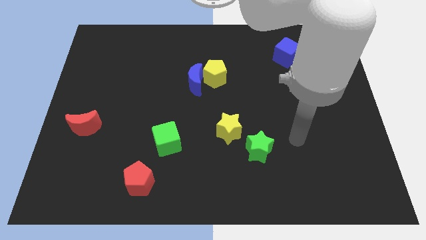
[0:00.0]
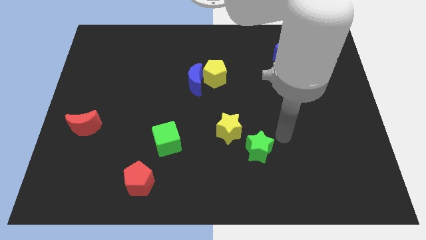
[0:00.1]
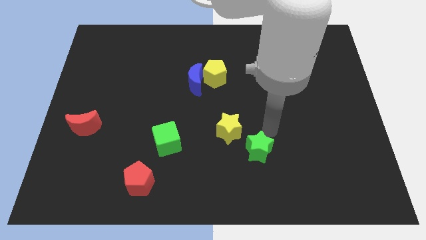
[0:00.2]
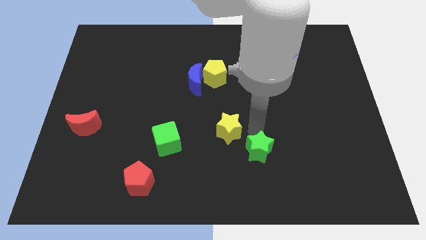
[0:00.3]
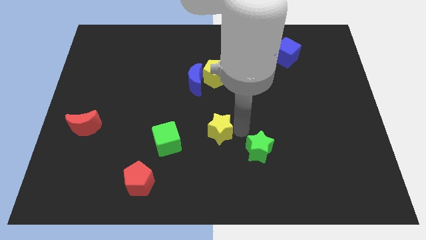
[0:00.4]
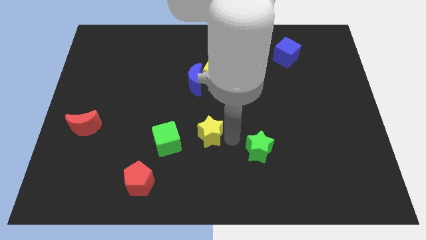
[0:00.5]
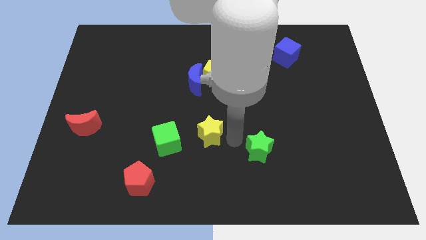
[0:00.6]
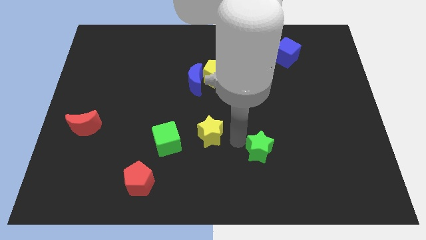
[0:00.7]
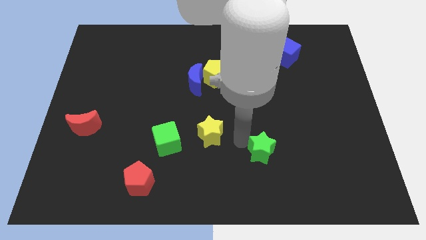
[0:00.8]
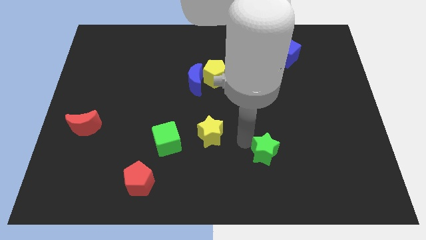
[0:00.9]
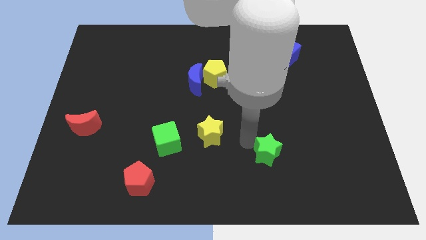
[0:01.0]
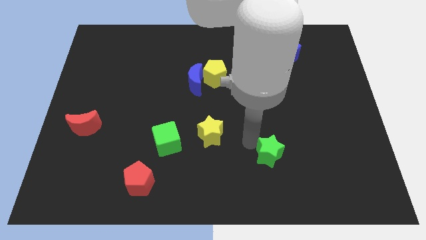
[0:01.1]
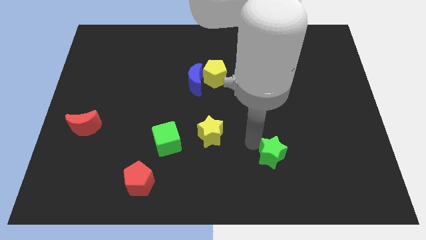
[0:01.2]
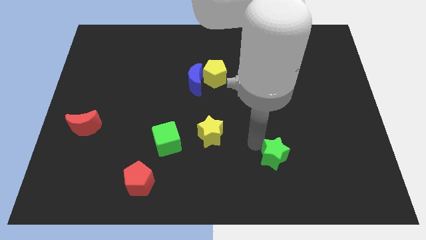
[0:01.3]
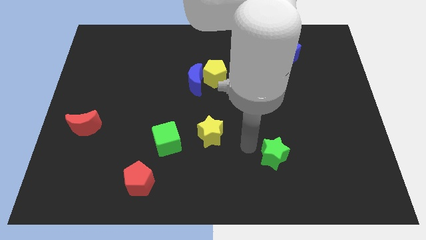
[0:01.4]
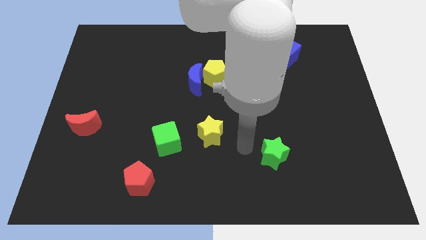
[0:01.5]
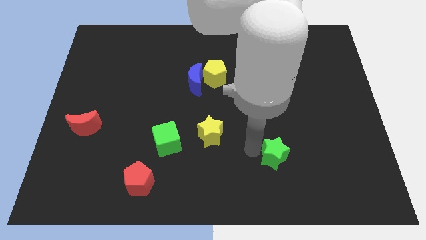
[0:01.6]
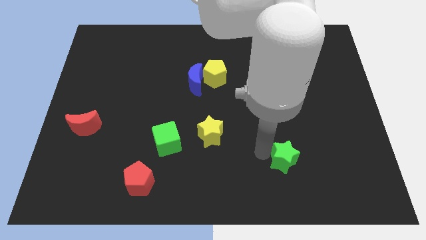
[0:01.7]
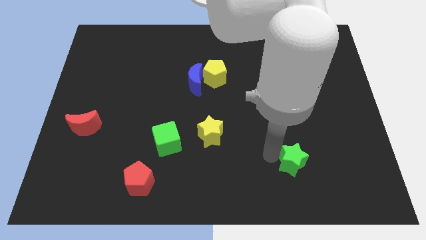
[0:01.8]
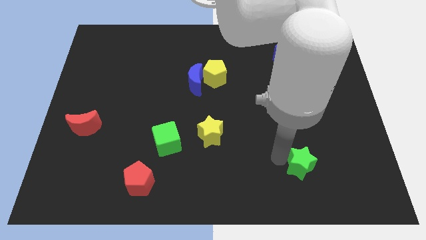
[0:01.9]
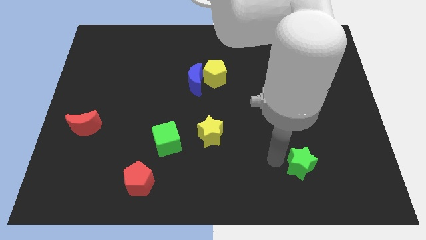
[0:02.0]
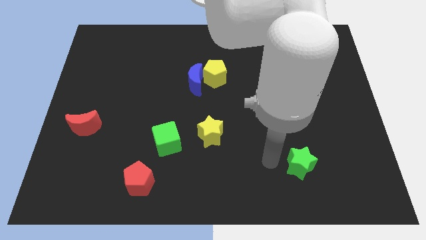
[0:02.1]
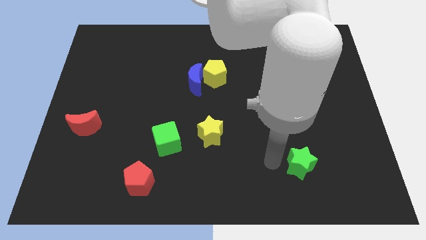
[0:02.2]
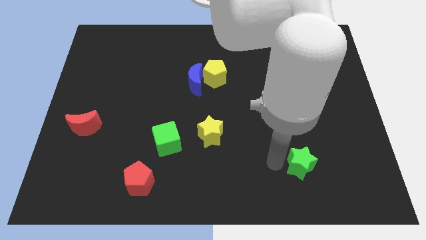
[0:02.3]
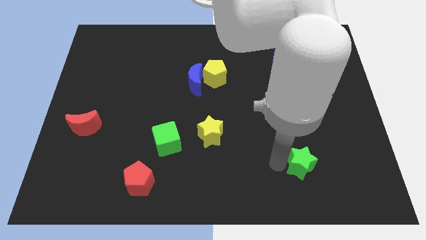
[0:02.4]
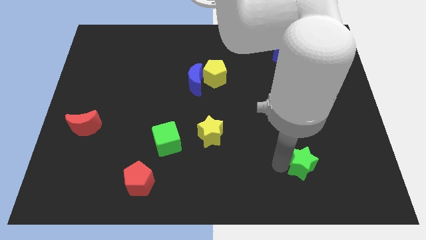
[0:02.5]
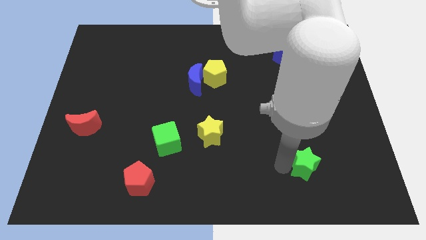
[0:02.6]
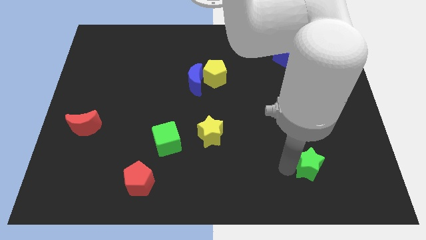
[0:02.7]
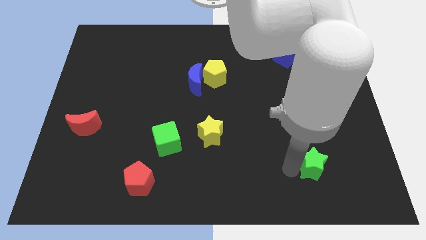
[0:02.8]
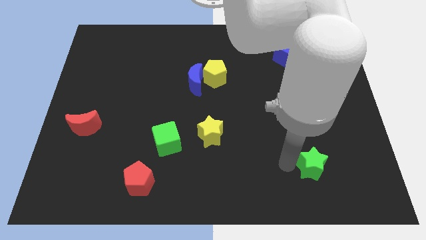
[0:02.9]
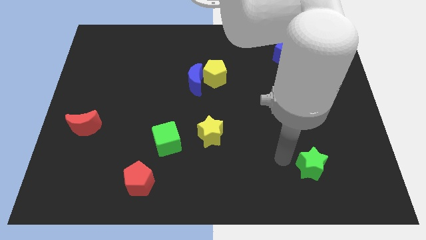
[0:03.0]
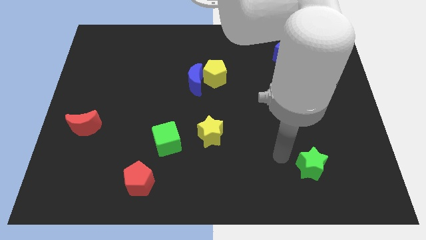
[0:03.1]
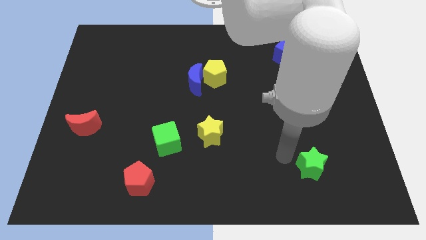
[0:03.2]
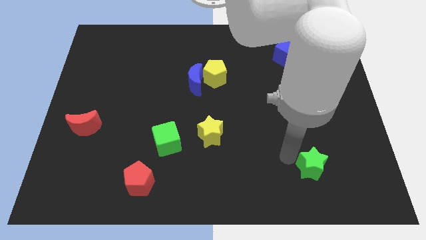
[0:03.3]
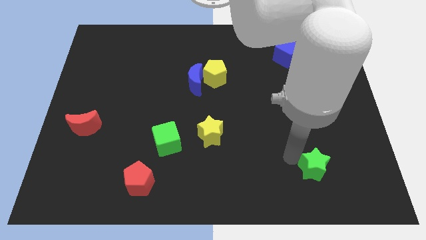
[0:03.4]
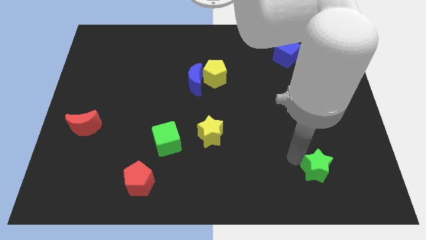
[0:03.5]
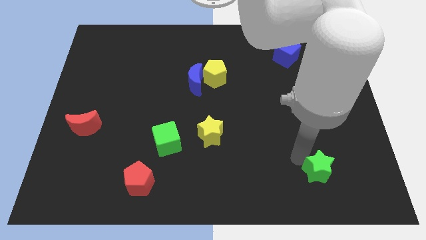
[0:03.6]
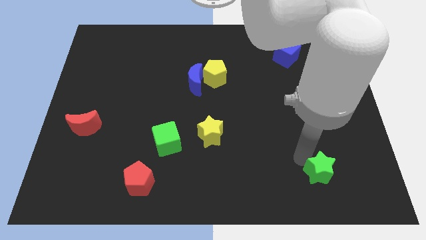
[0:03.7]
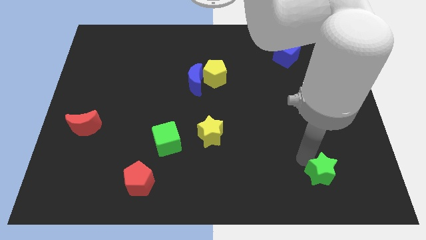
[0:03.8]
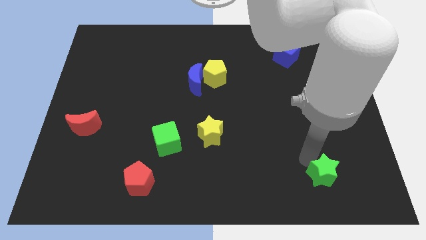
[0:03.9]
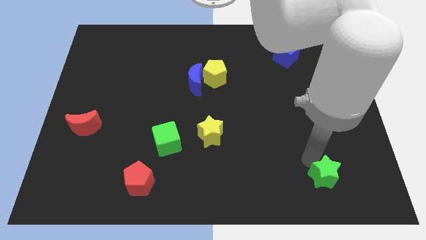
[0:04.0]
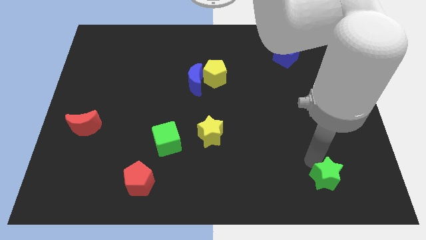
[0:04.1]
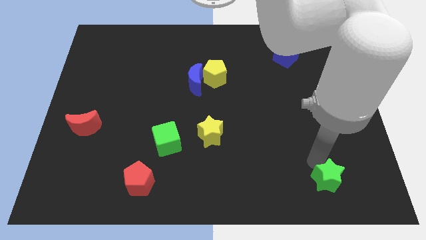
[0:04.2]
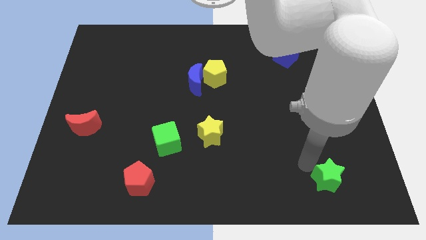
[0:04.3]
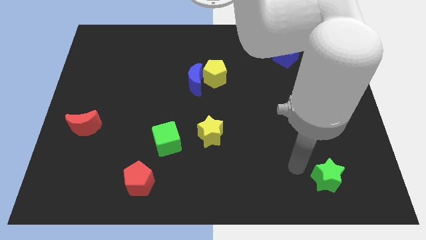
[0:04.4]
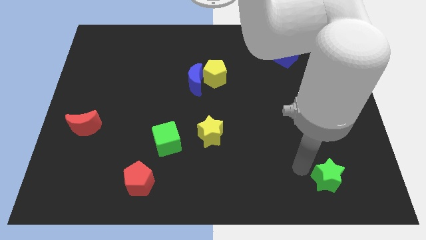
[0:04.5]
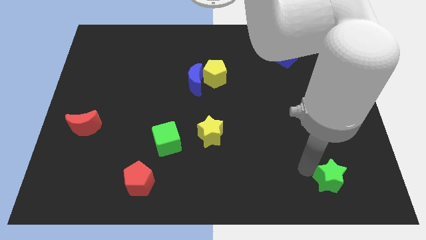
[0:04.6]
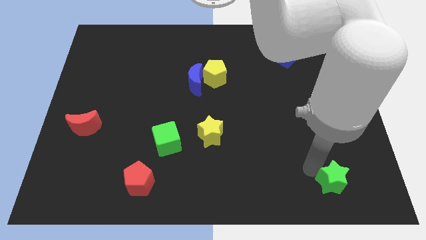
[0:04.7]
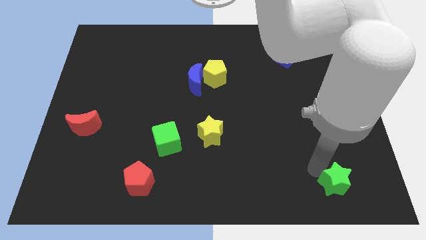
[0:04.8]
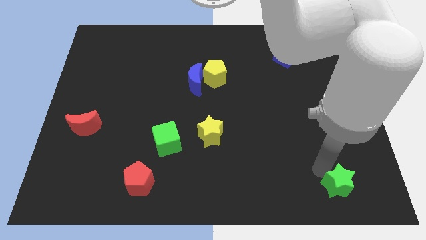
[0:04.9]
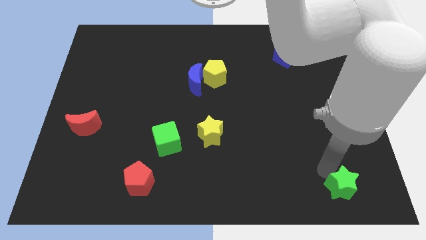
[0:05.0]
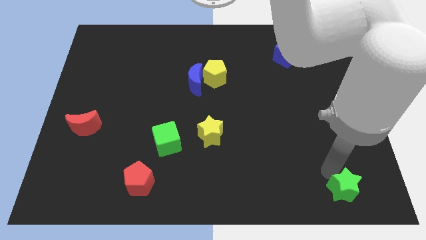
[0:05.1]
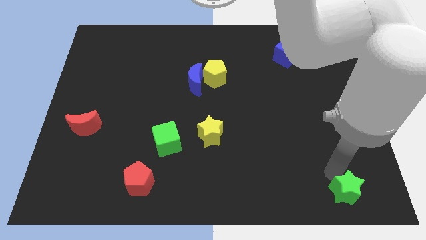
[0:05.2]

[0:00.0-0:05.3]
move the green star to the lower right corner

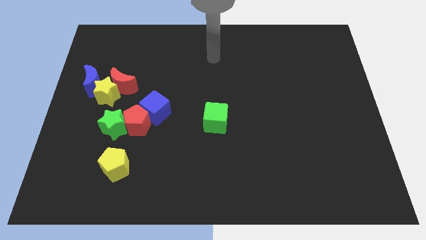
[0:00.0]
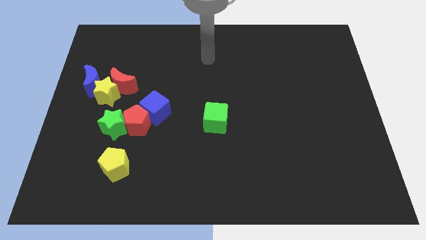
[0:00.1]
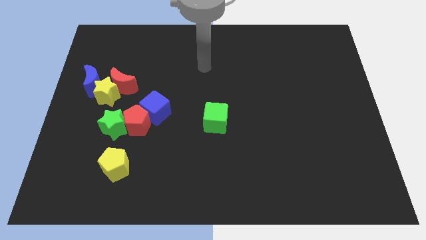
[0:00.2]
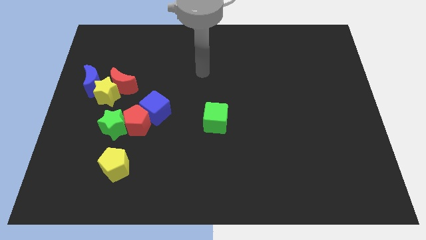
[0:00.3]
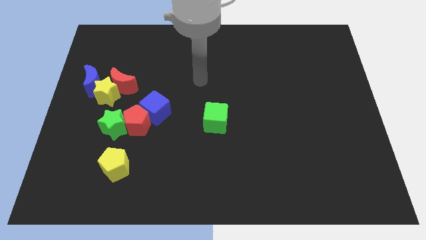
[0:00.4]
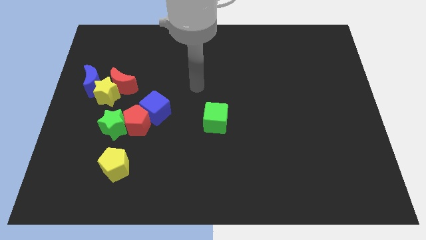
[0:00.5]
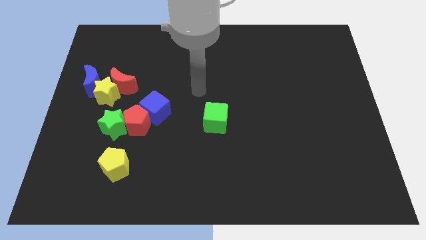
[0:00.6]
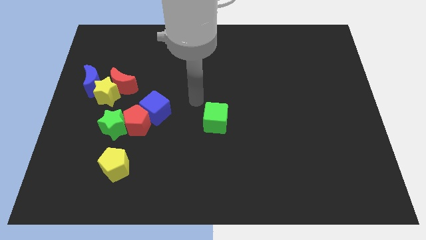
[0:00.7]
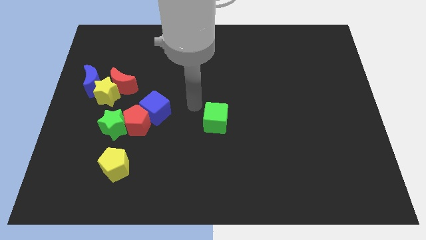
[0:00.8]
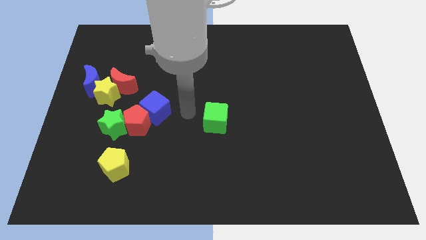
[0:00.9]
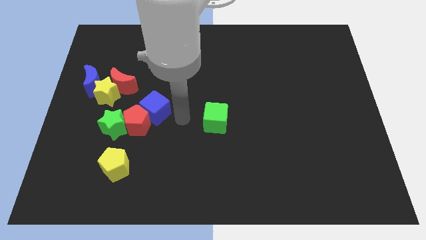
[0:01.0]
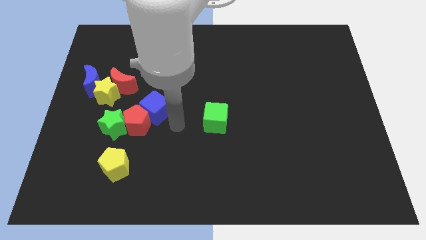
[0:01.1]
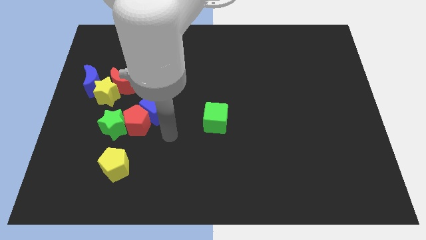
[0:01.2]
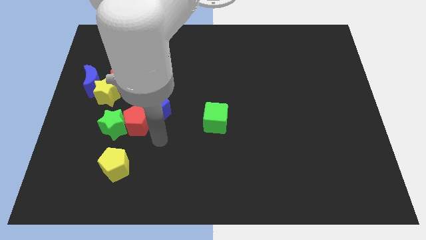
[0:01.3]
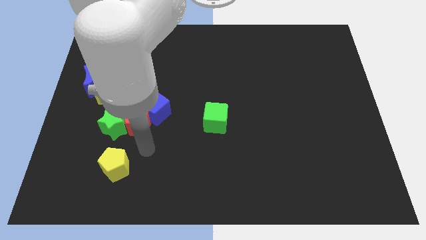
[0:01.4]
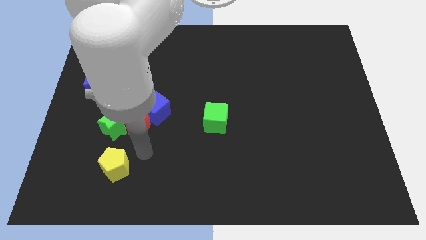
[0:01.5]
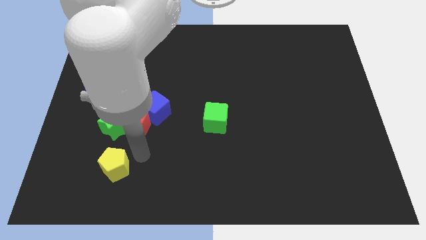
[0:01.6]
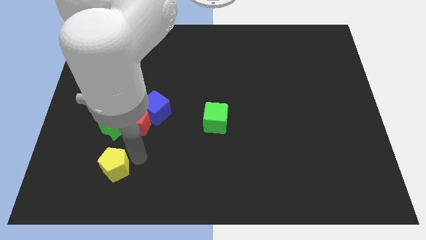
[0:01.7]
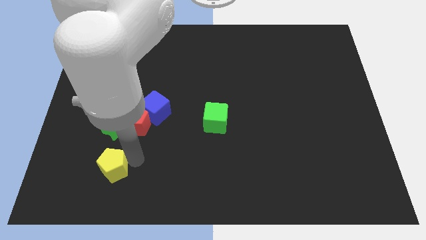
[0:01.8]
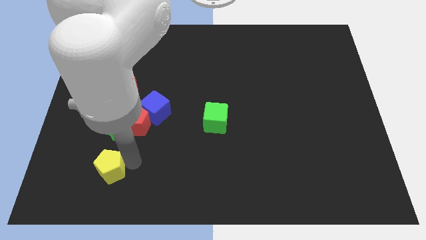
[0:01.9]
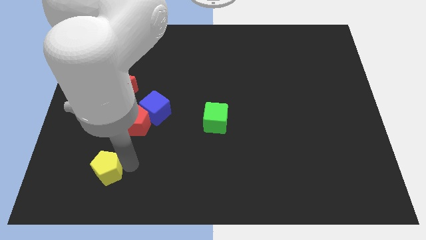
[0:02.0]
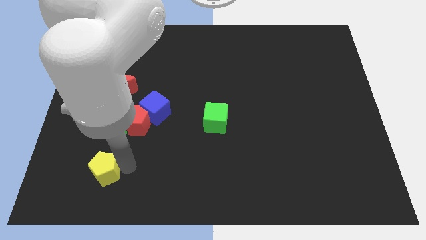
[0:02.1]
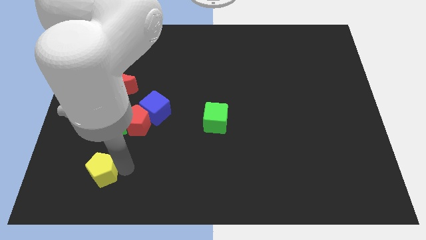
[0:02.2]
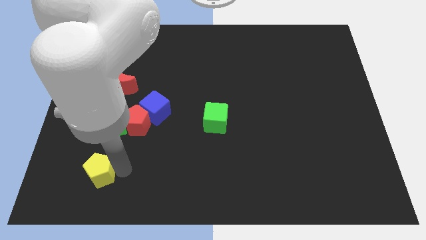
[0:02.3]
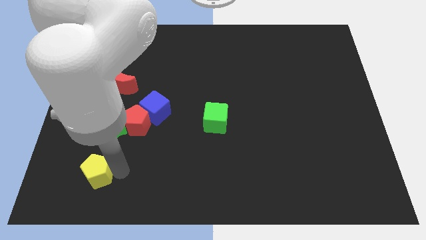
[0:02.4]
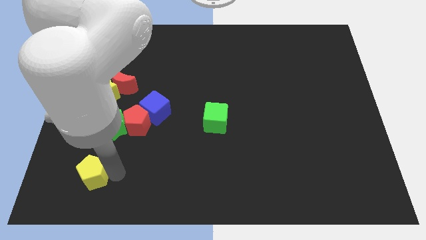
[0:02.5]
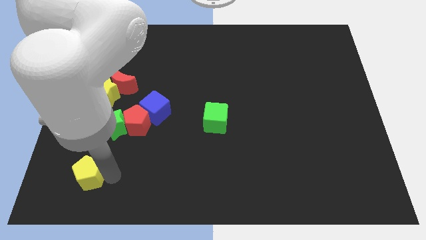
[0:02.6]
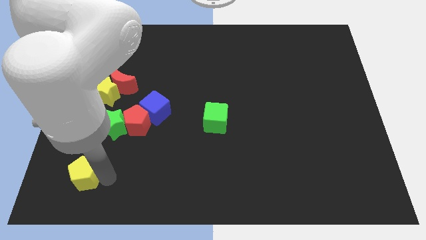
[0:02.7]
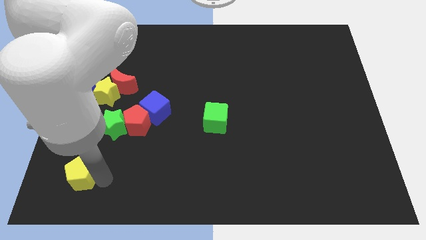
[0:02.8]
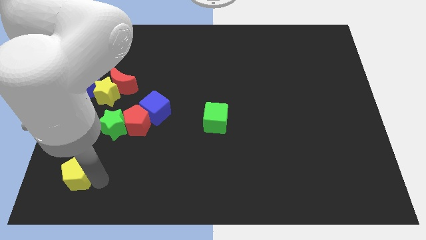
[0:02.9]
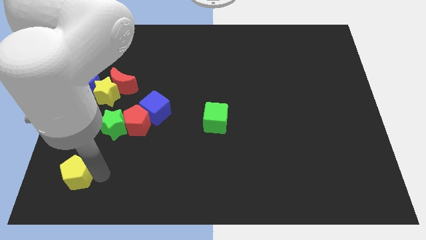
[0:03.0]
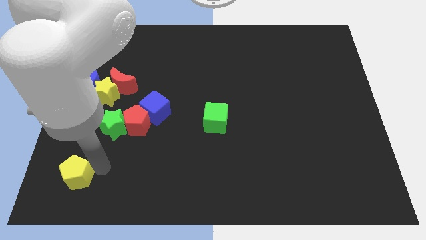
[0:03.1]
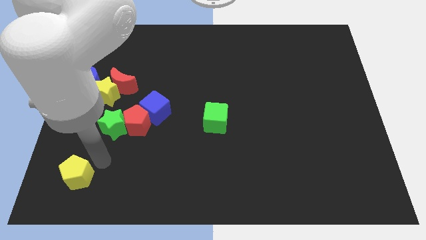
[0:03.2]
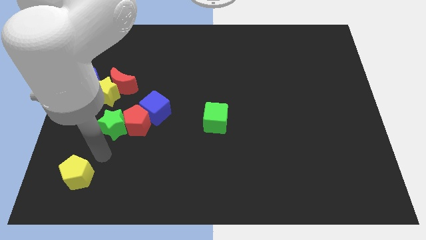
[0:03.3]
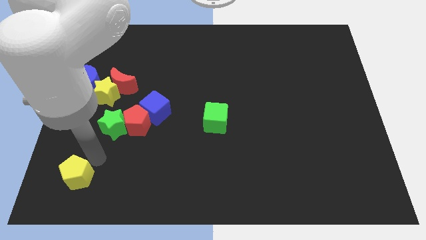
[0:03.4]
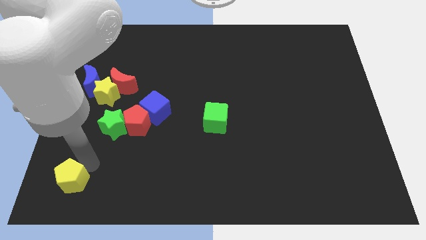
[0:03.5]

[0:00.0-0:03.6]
put the yellow pentagon to the bottom left
